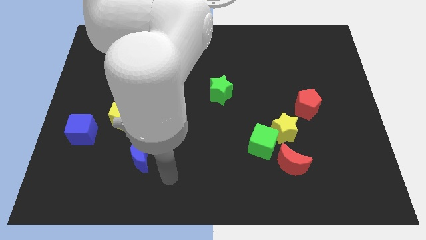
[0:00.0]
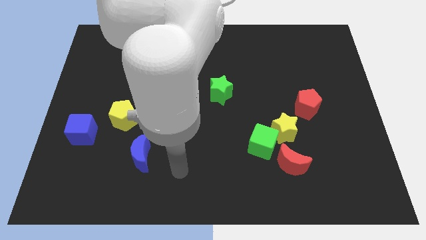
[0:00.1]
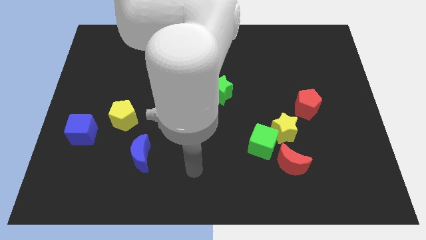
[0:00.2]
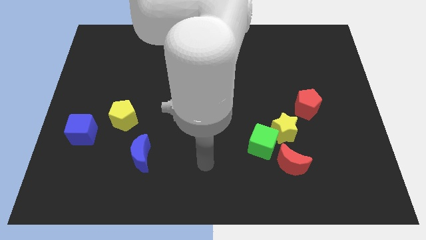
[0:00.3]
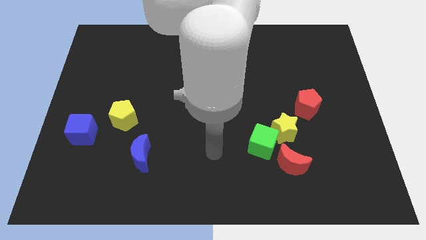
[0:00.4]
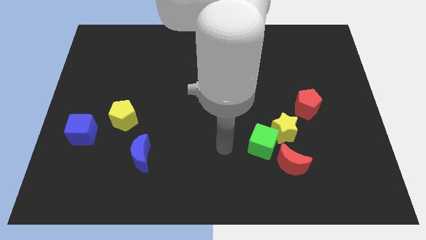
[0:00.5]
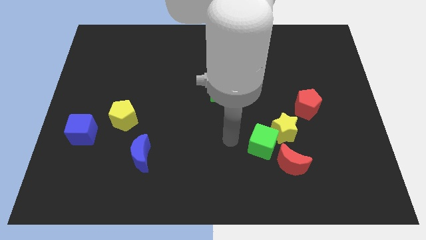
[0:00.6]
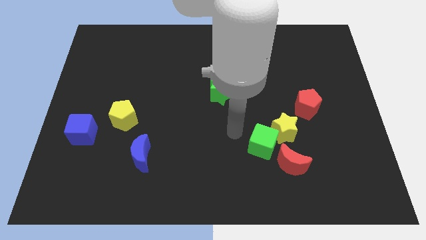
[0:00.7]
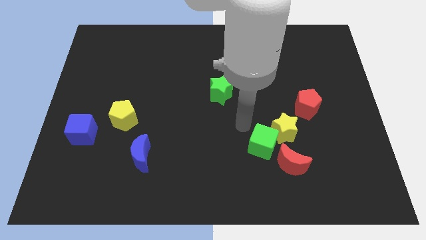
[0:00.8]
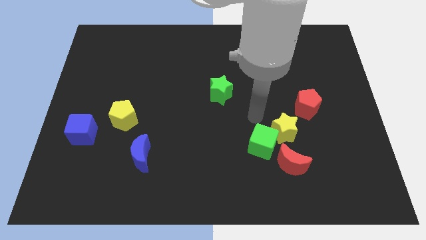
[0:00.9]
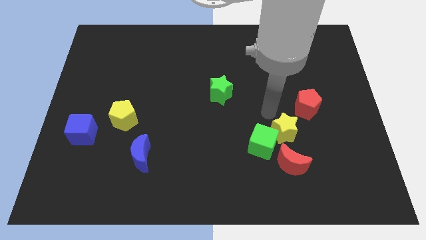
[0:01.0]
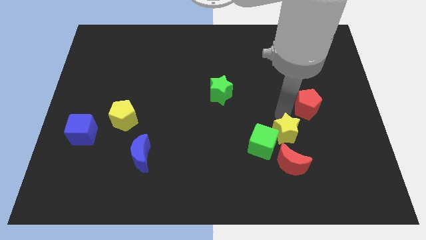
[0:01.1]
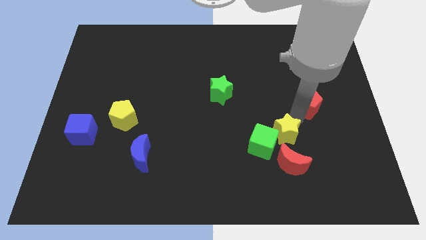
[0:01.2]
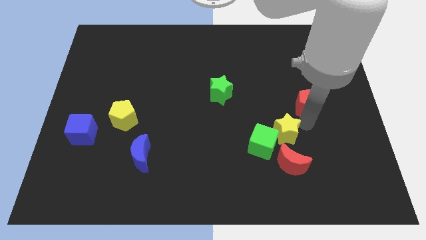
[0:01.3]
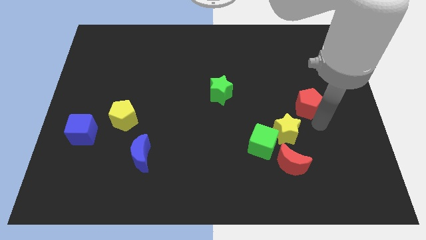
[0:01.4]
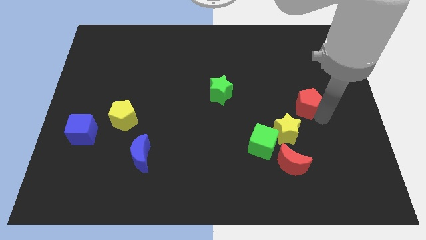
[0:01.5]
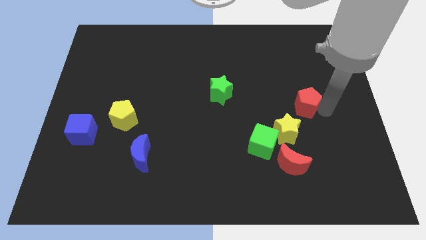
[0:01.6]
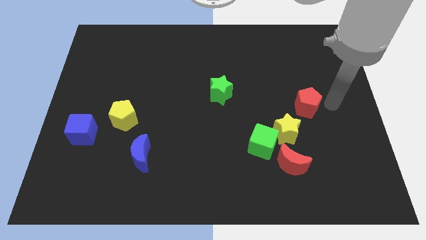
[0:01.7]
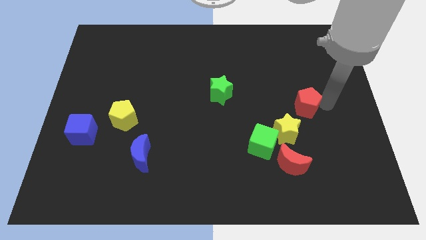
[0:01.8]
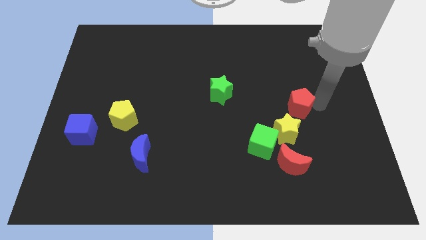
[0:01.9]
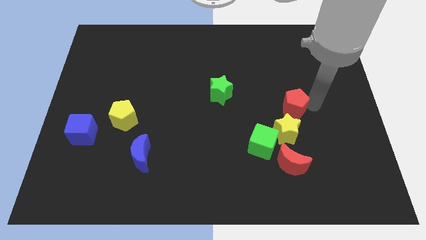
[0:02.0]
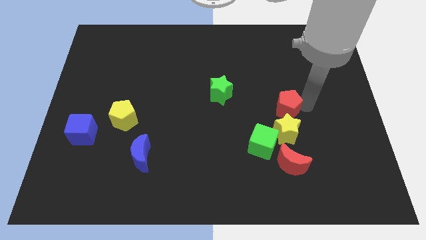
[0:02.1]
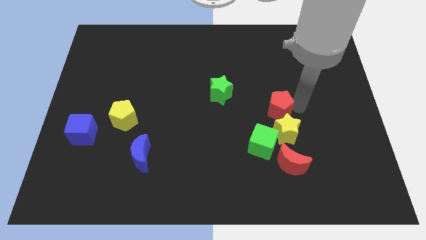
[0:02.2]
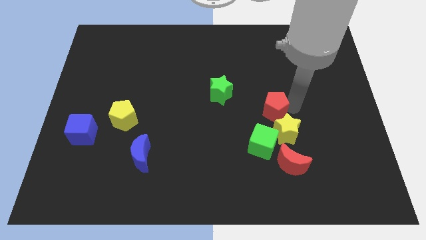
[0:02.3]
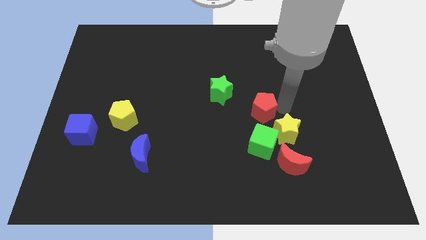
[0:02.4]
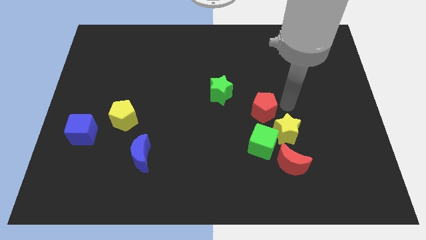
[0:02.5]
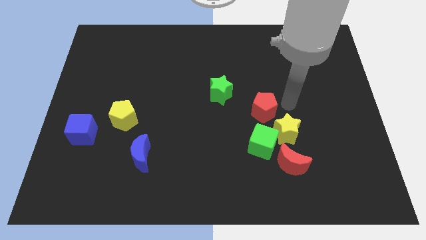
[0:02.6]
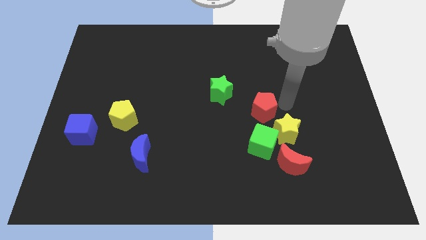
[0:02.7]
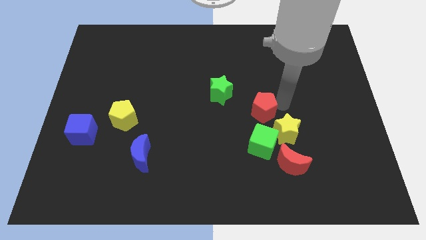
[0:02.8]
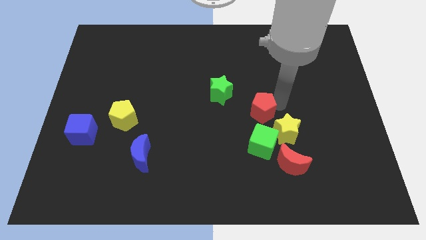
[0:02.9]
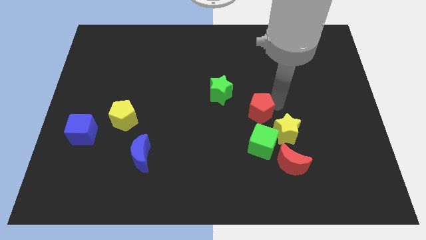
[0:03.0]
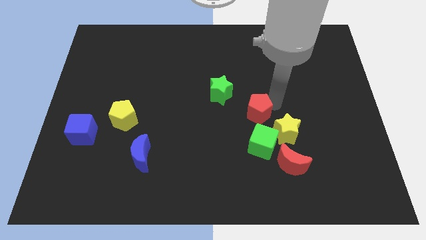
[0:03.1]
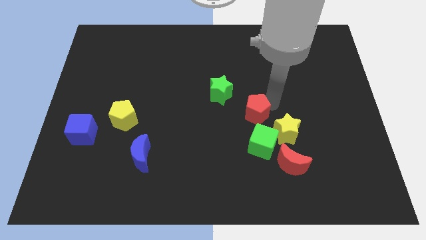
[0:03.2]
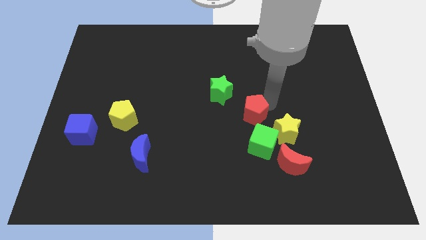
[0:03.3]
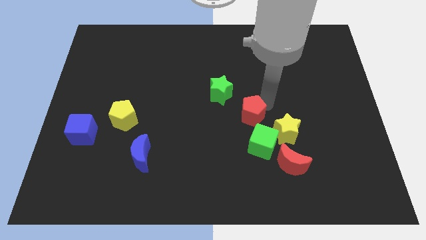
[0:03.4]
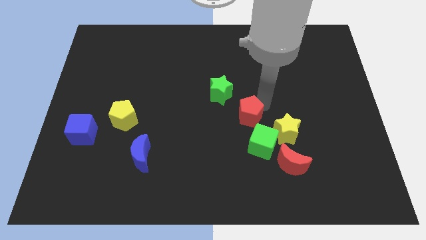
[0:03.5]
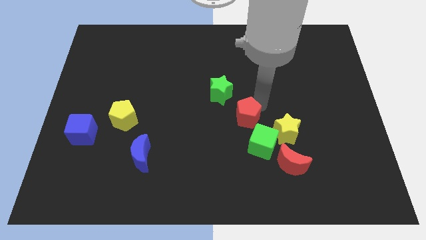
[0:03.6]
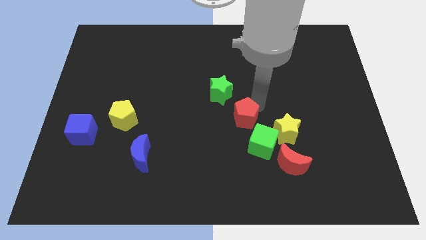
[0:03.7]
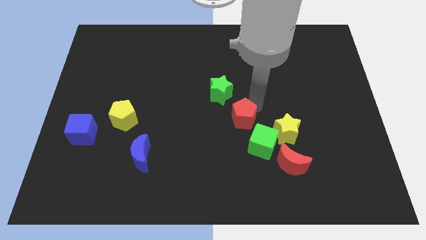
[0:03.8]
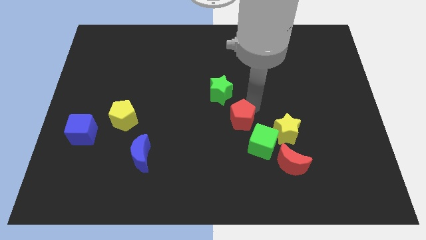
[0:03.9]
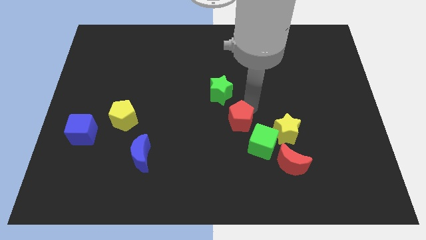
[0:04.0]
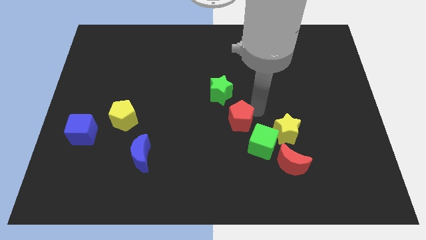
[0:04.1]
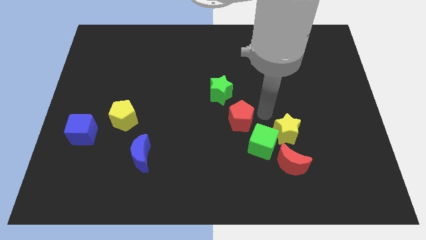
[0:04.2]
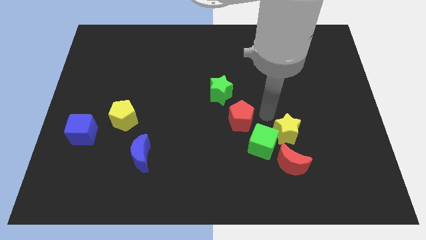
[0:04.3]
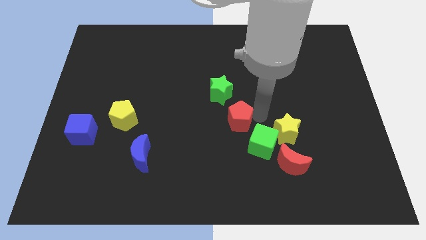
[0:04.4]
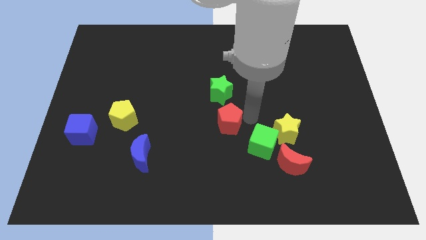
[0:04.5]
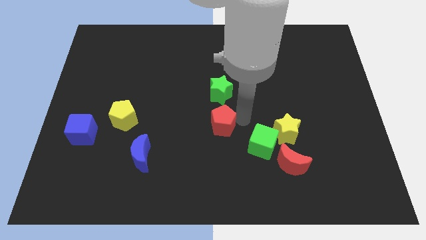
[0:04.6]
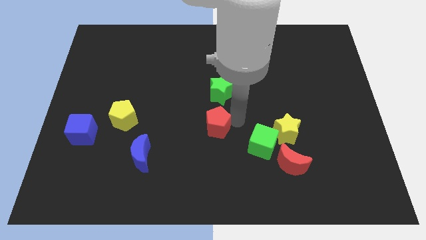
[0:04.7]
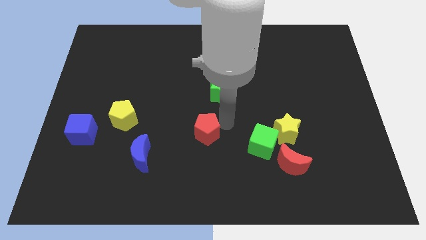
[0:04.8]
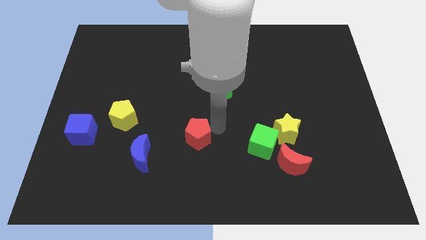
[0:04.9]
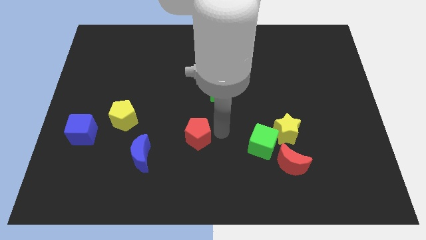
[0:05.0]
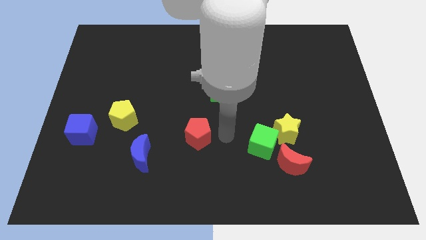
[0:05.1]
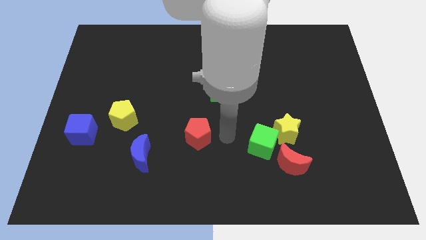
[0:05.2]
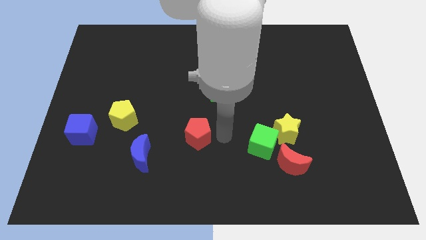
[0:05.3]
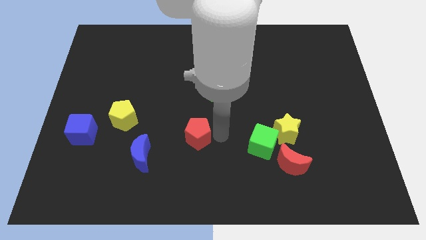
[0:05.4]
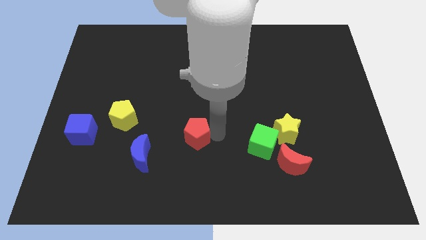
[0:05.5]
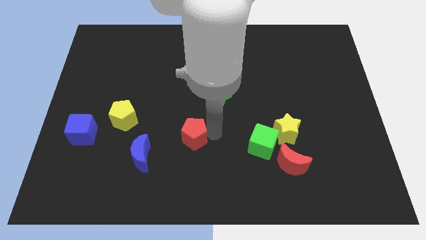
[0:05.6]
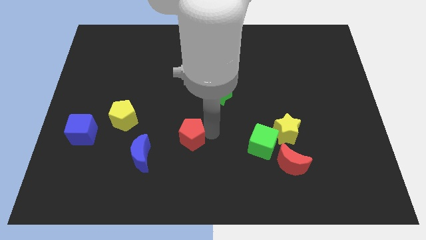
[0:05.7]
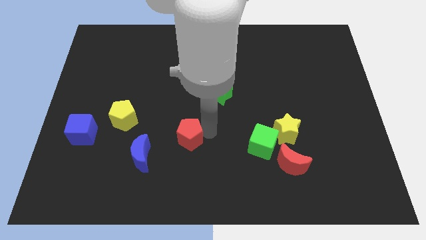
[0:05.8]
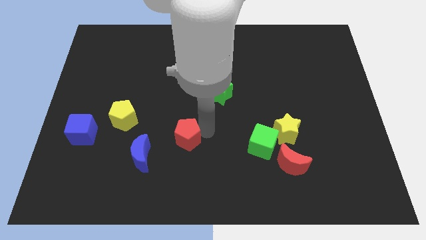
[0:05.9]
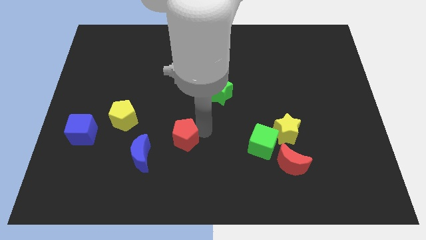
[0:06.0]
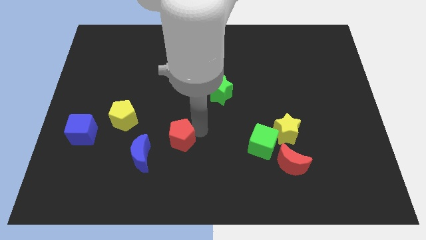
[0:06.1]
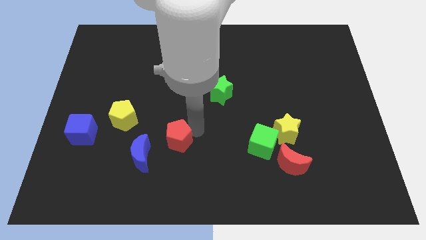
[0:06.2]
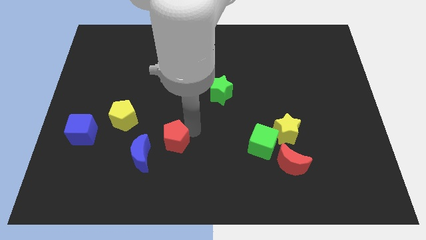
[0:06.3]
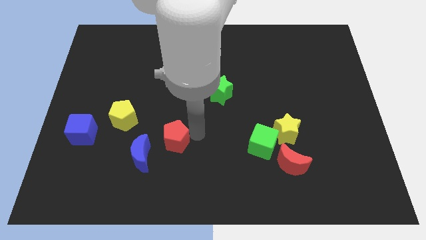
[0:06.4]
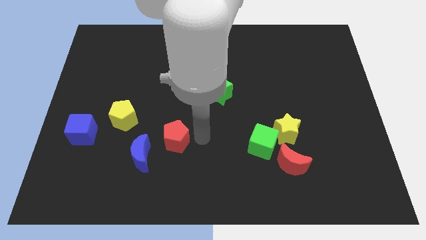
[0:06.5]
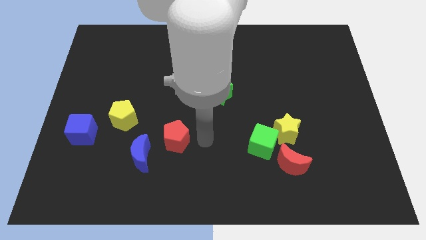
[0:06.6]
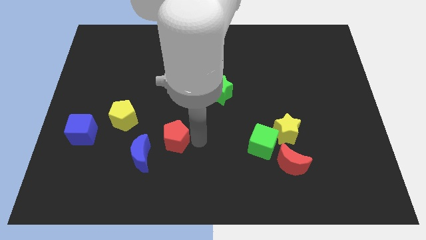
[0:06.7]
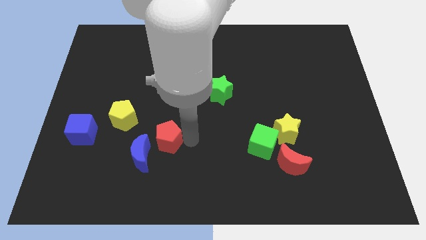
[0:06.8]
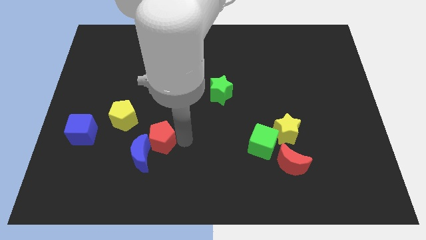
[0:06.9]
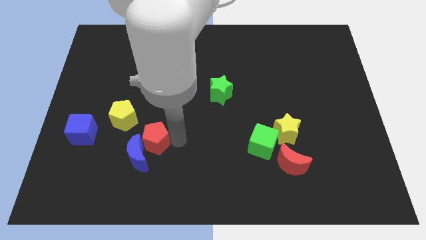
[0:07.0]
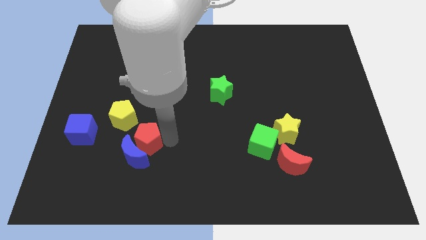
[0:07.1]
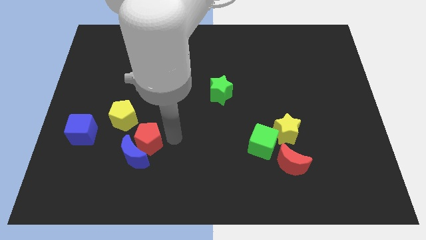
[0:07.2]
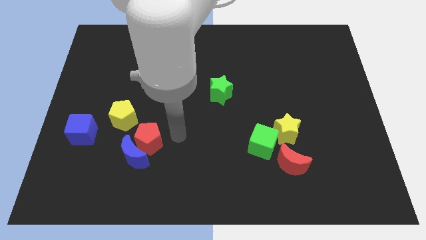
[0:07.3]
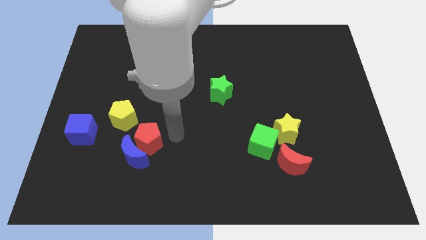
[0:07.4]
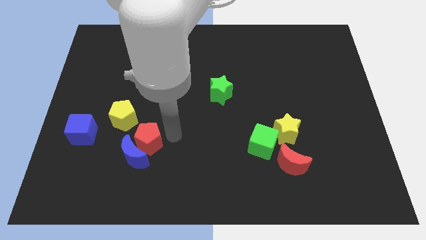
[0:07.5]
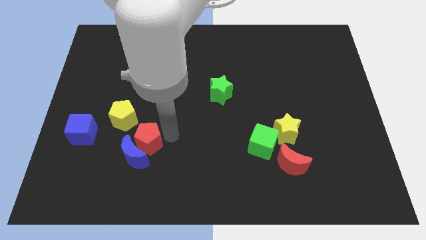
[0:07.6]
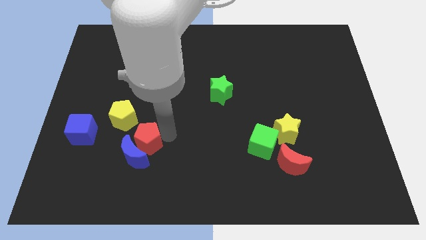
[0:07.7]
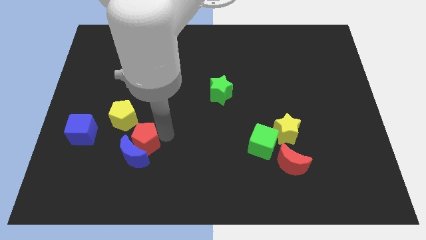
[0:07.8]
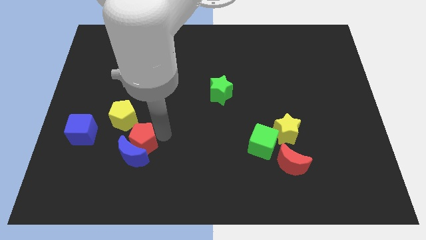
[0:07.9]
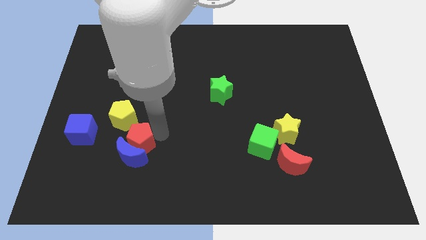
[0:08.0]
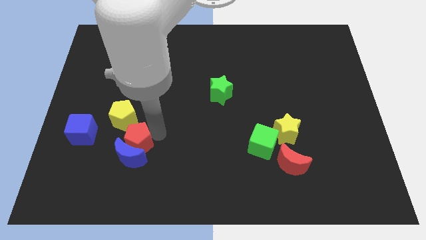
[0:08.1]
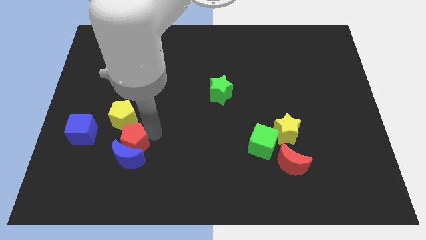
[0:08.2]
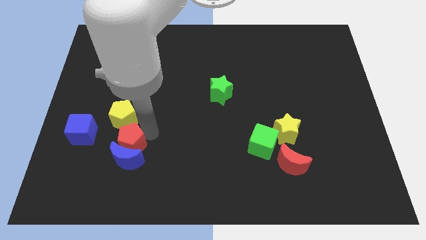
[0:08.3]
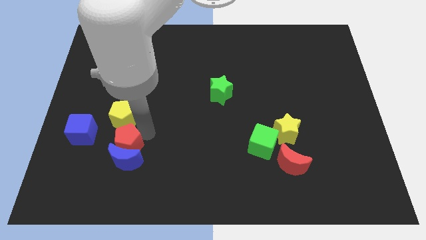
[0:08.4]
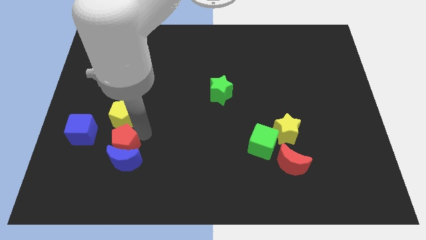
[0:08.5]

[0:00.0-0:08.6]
move the red pentagon diagonally down and to the right of the blue cube
